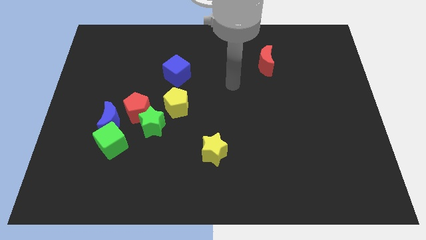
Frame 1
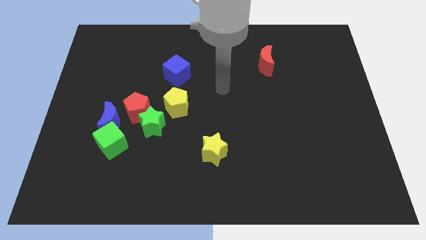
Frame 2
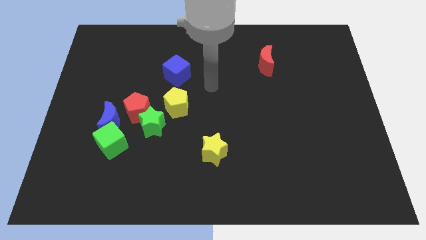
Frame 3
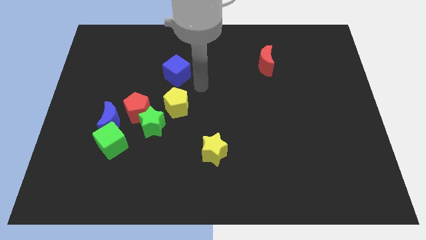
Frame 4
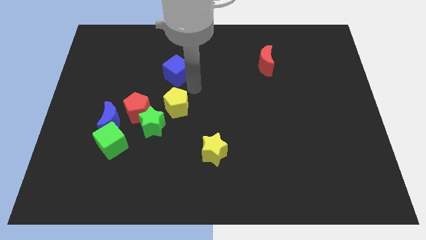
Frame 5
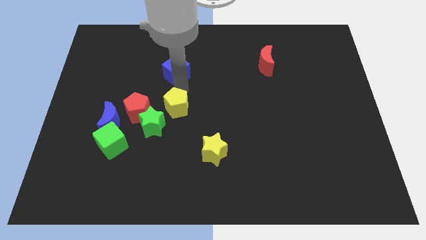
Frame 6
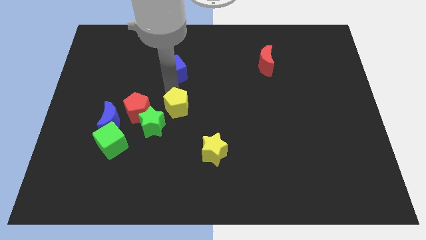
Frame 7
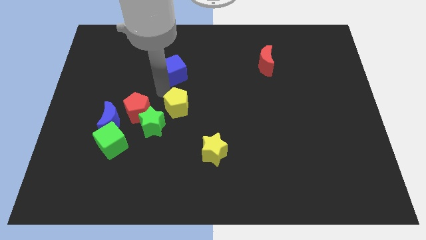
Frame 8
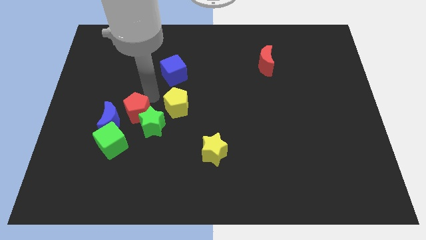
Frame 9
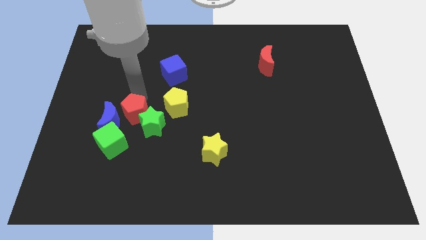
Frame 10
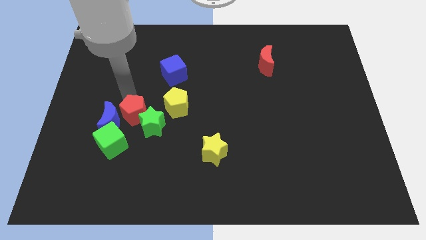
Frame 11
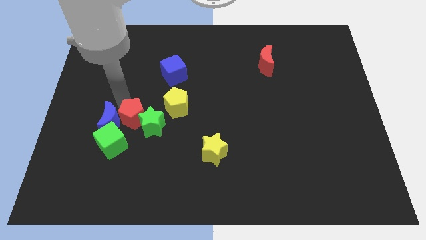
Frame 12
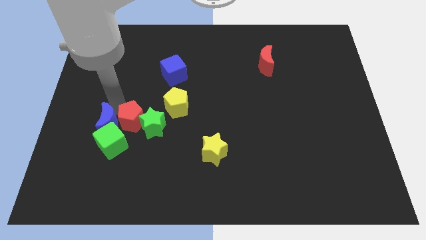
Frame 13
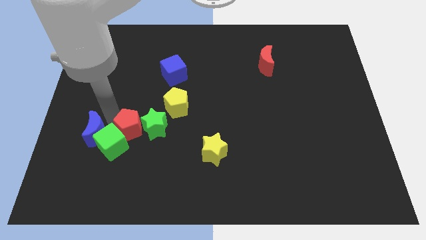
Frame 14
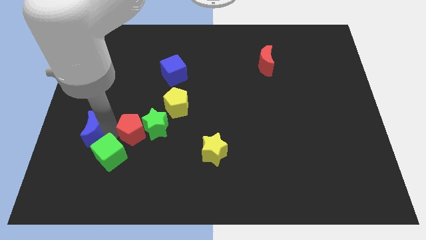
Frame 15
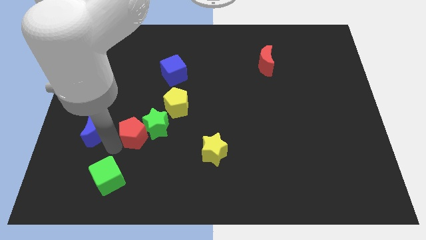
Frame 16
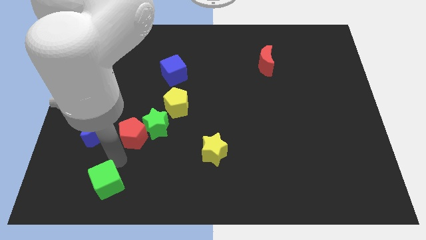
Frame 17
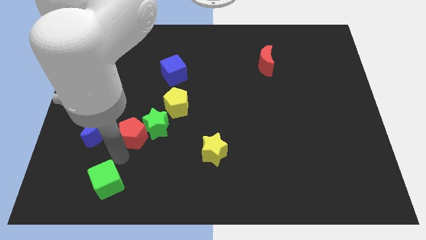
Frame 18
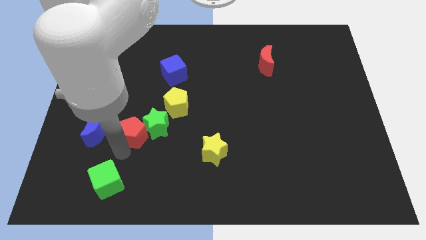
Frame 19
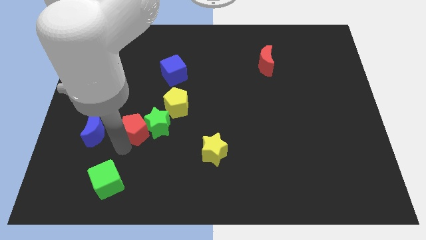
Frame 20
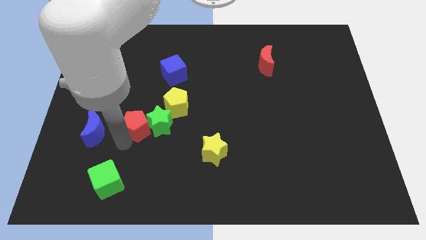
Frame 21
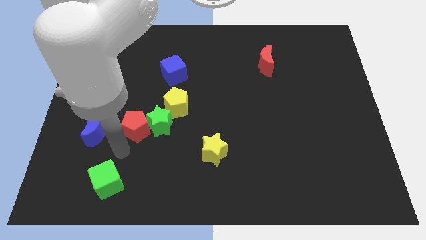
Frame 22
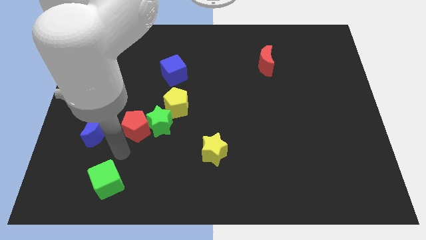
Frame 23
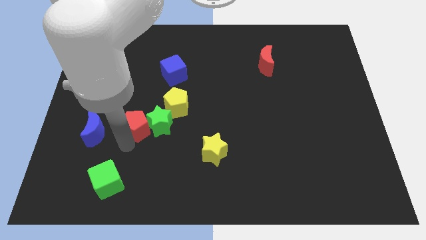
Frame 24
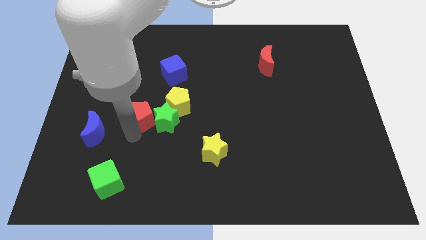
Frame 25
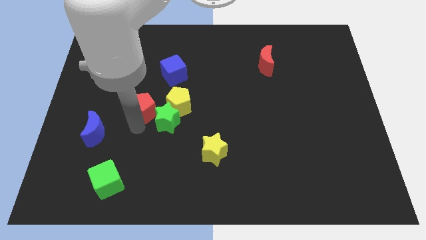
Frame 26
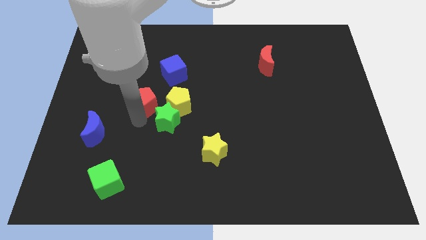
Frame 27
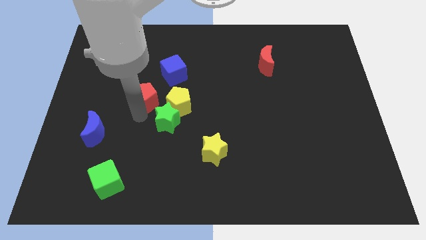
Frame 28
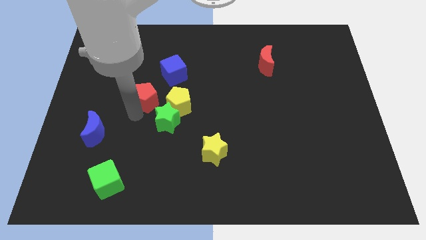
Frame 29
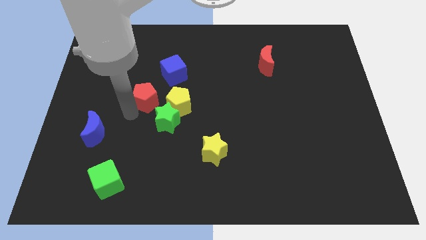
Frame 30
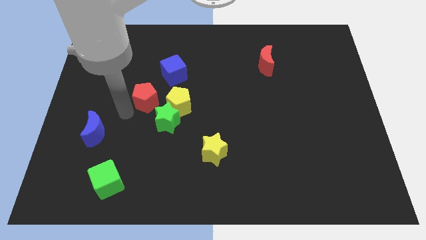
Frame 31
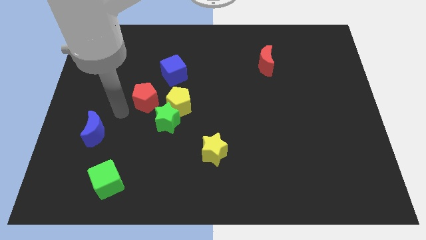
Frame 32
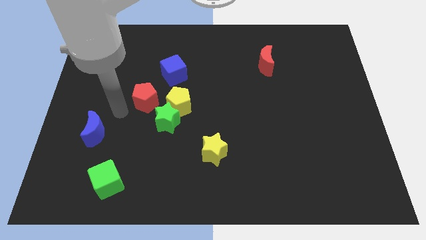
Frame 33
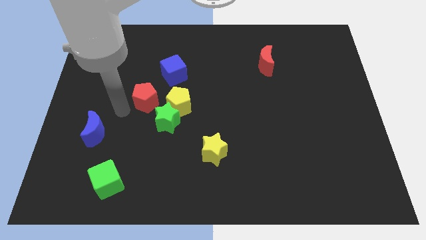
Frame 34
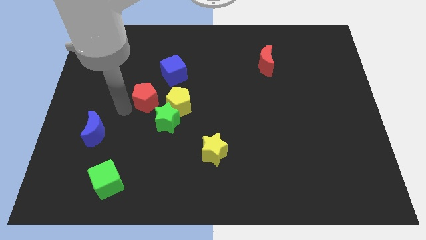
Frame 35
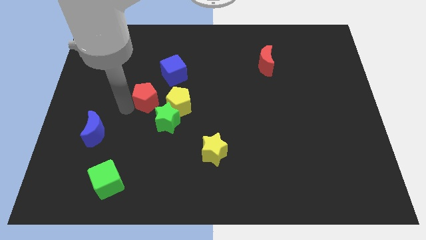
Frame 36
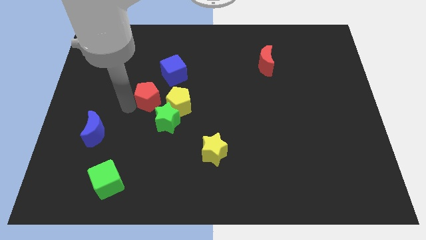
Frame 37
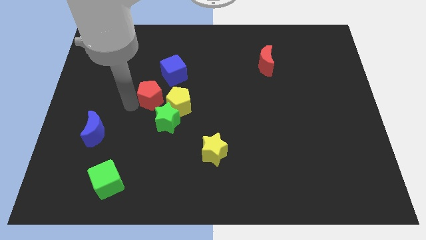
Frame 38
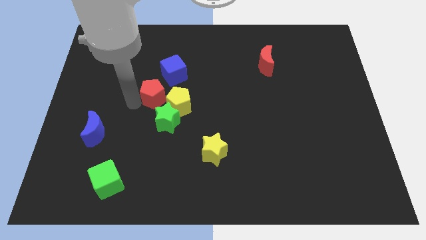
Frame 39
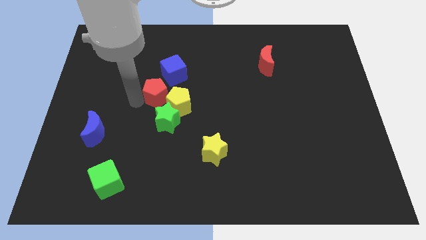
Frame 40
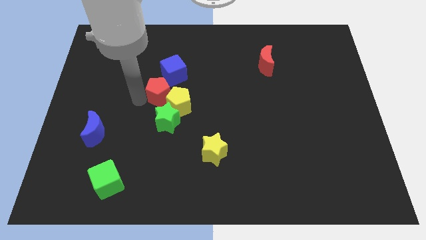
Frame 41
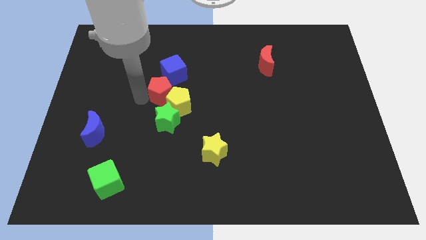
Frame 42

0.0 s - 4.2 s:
slide the red pentagon diagonally up and right a bit

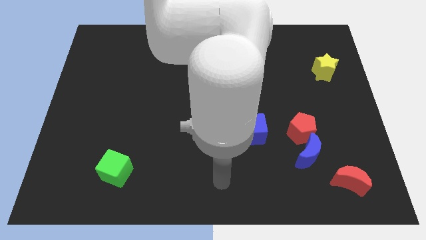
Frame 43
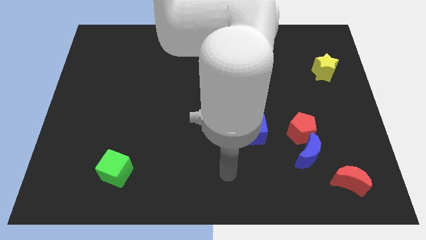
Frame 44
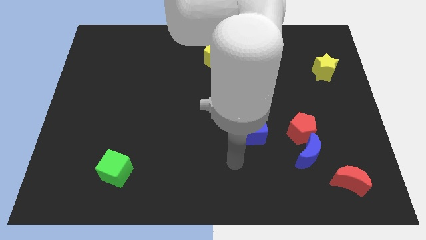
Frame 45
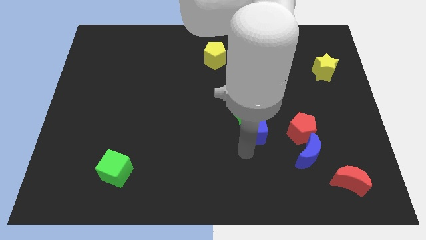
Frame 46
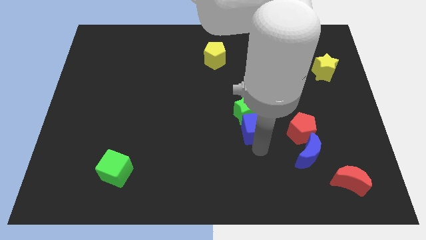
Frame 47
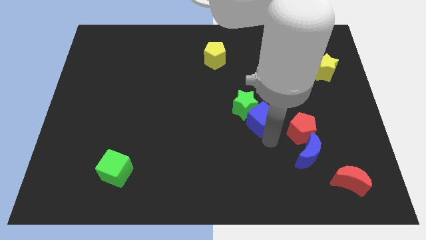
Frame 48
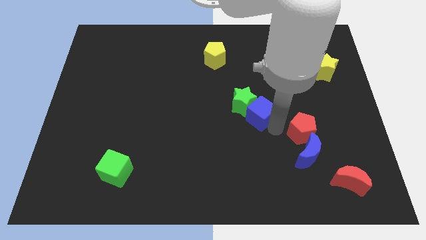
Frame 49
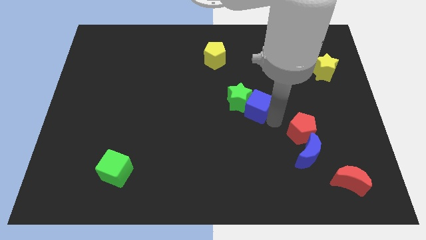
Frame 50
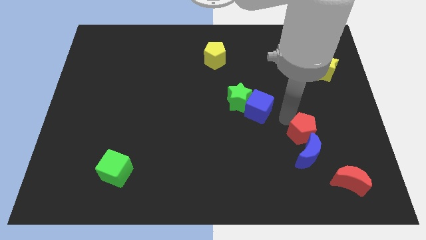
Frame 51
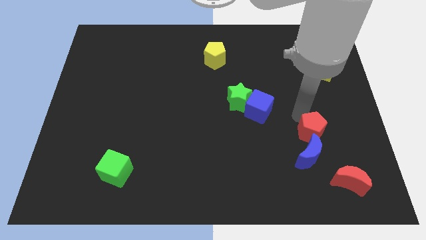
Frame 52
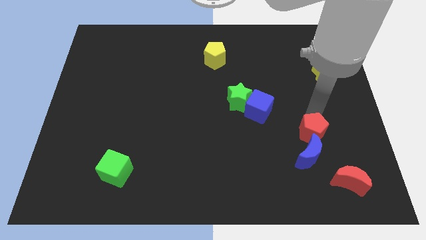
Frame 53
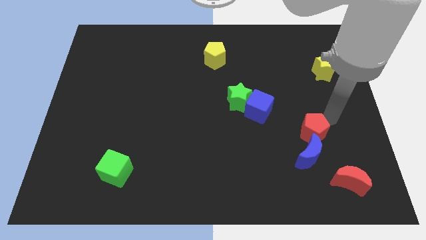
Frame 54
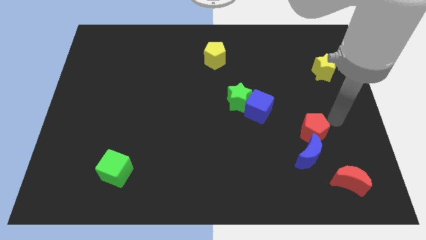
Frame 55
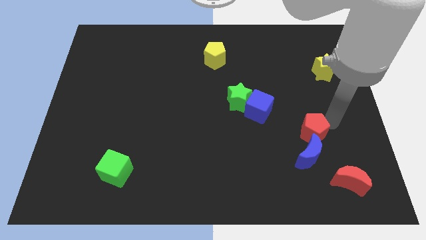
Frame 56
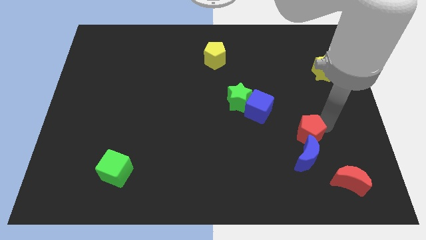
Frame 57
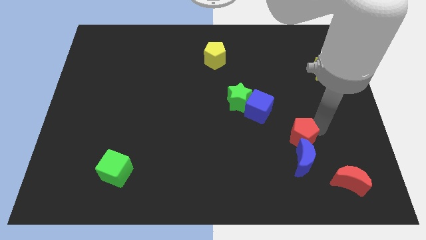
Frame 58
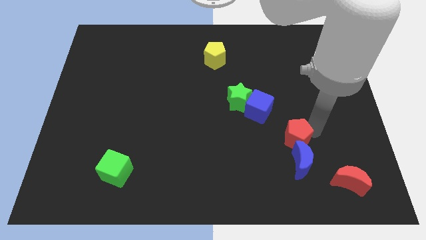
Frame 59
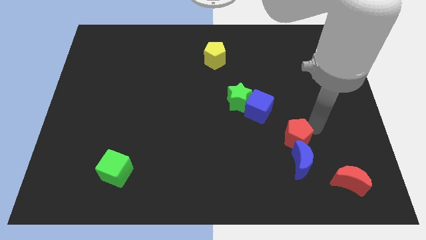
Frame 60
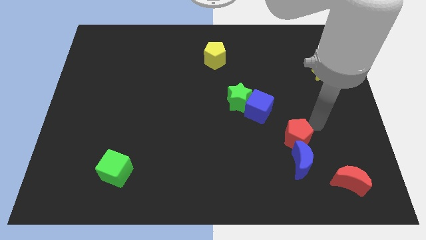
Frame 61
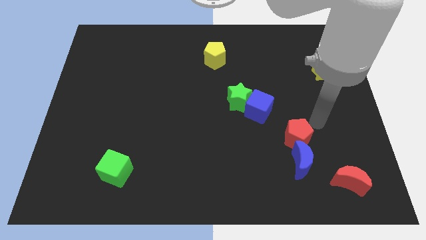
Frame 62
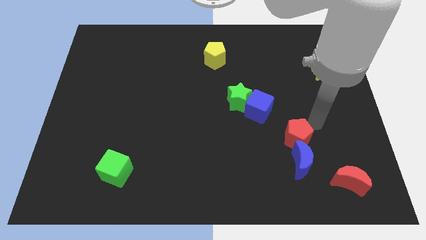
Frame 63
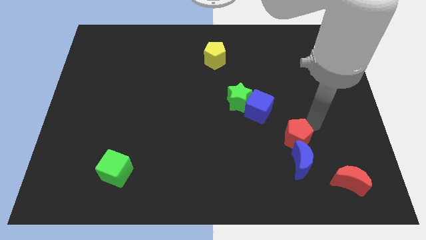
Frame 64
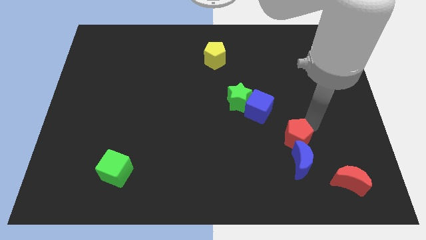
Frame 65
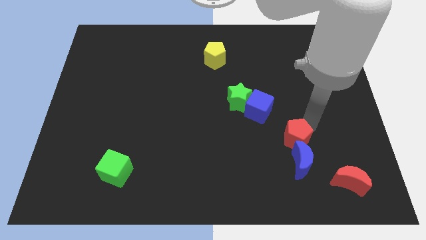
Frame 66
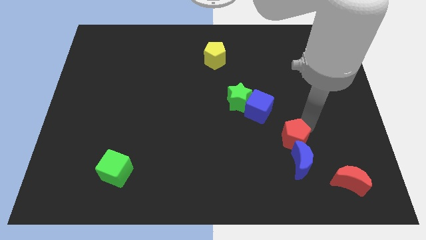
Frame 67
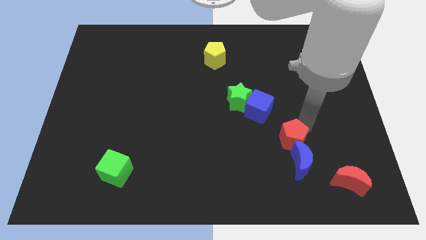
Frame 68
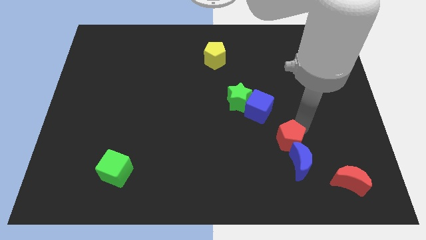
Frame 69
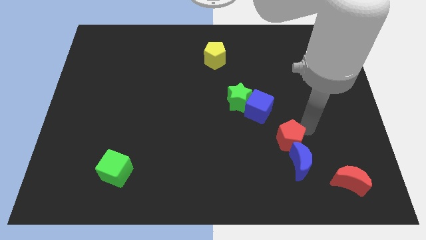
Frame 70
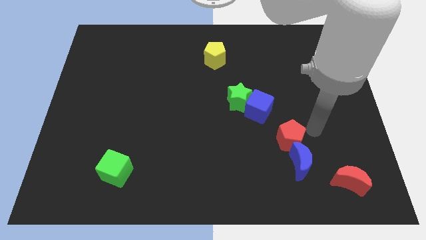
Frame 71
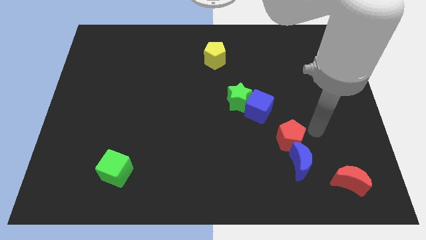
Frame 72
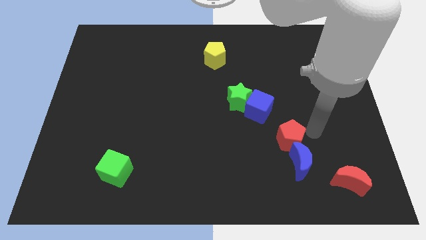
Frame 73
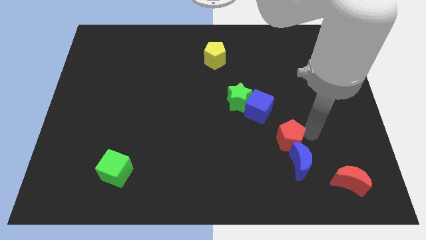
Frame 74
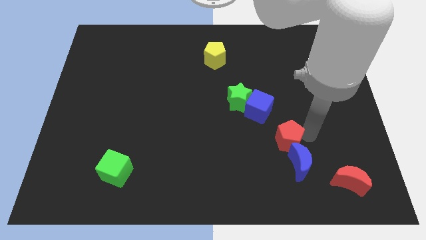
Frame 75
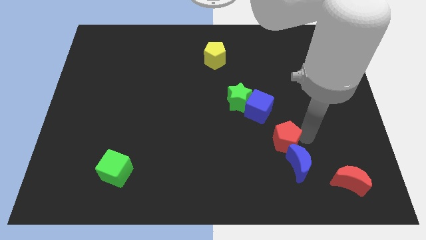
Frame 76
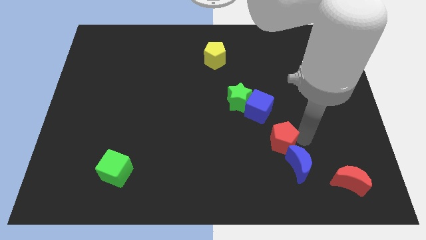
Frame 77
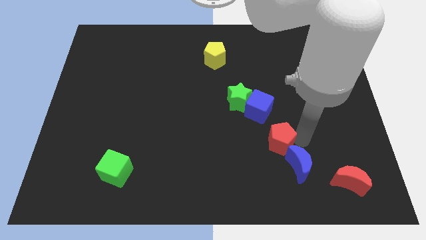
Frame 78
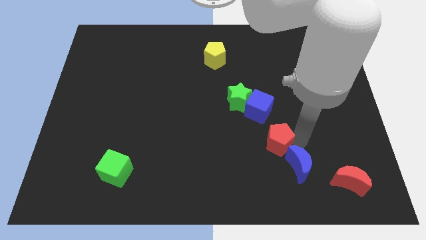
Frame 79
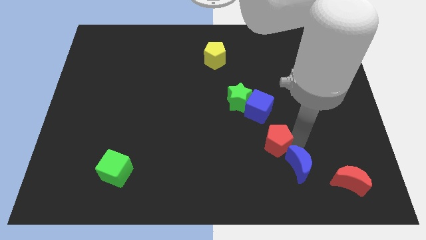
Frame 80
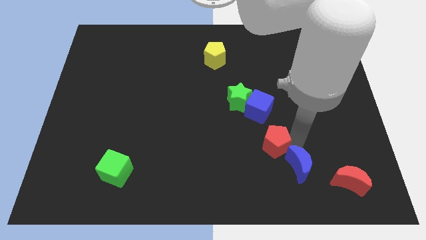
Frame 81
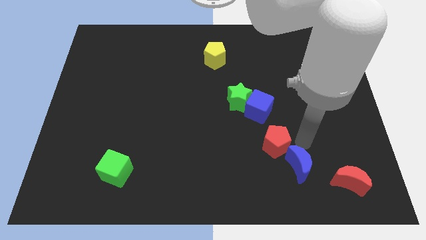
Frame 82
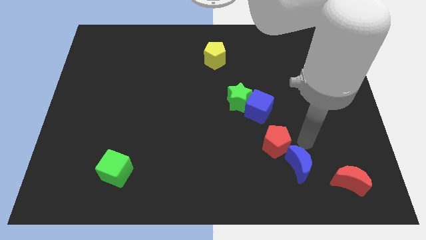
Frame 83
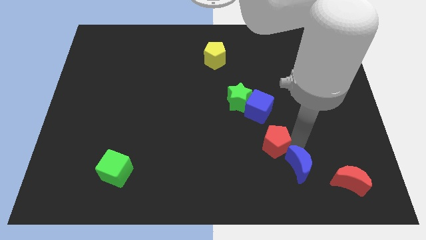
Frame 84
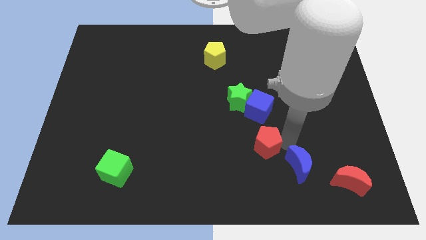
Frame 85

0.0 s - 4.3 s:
slightly push the red pentagon to the left
